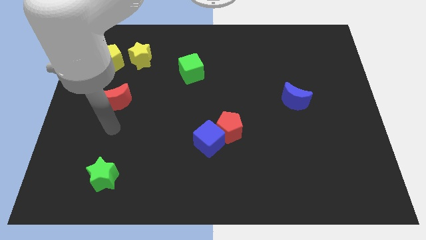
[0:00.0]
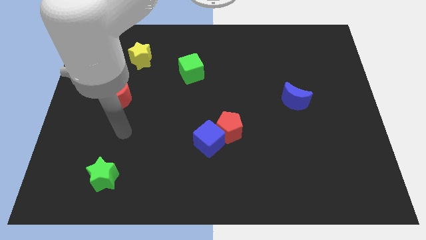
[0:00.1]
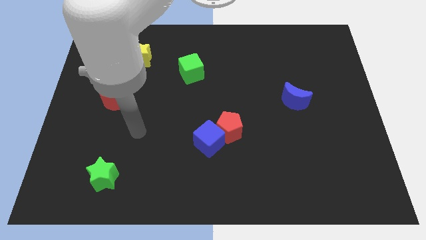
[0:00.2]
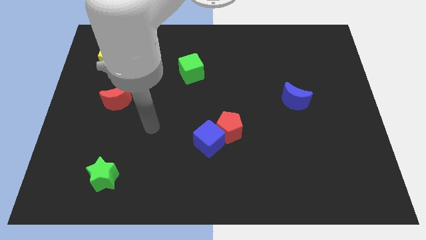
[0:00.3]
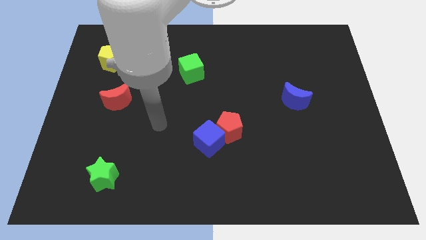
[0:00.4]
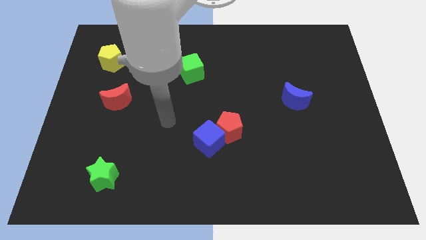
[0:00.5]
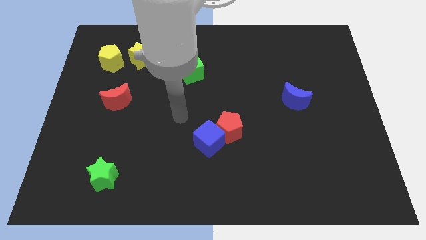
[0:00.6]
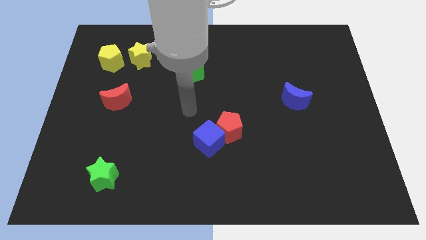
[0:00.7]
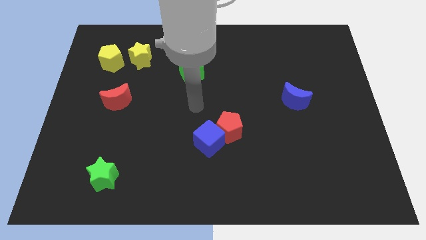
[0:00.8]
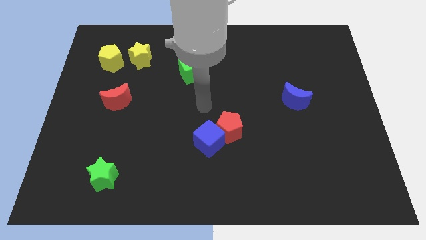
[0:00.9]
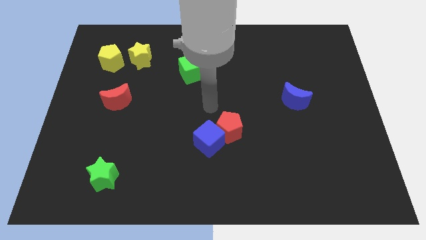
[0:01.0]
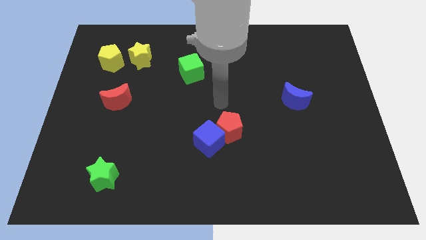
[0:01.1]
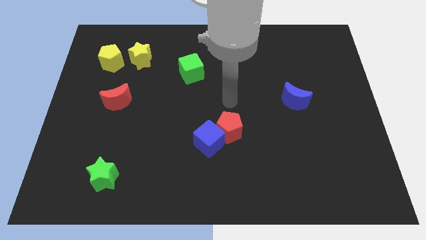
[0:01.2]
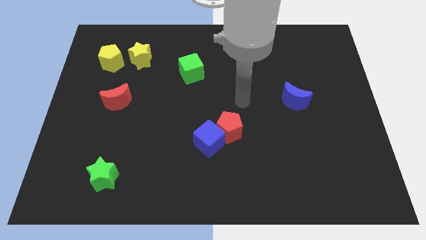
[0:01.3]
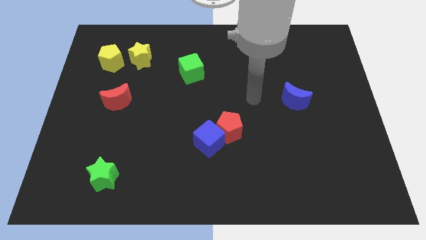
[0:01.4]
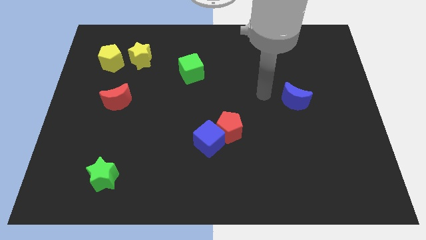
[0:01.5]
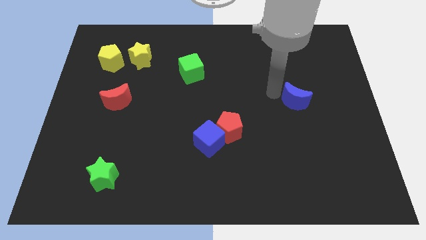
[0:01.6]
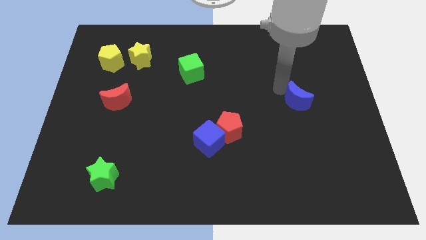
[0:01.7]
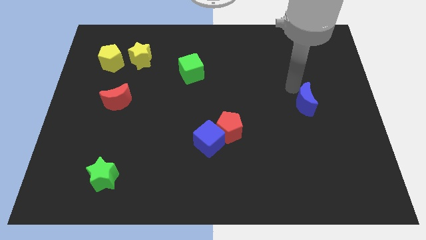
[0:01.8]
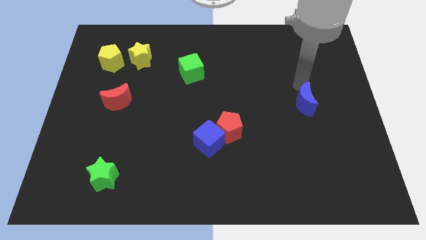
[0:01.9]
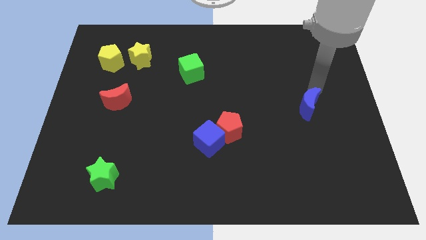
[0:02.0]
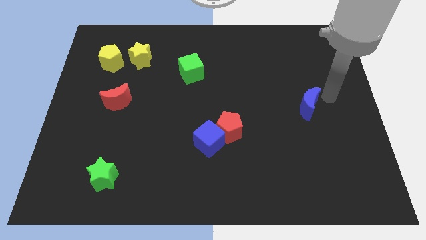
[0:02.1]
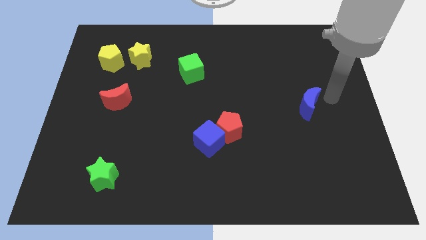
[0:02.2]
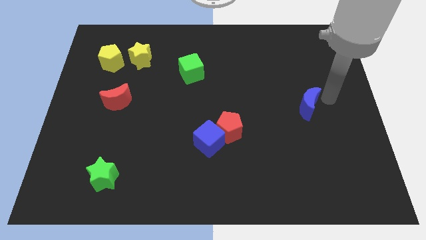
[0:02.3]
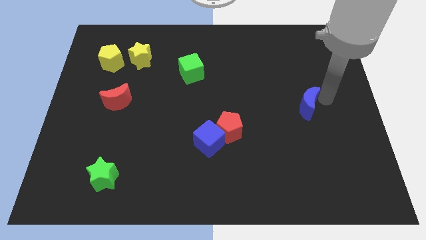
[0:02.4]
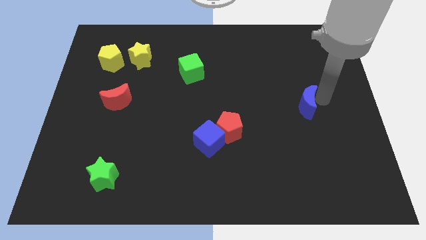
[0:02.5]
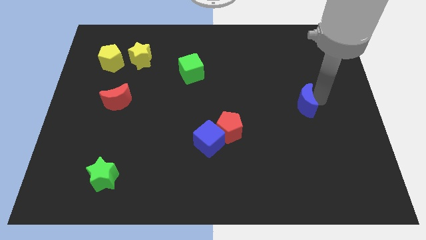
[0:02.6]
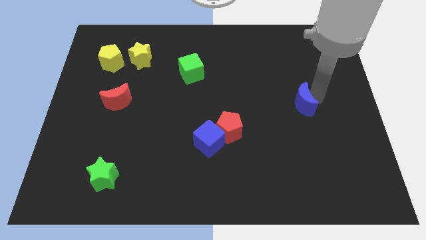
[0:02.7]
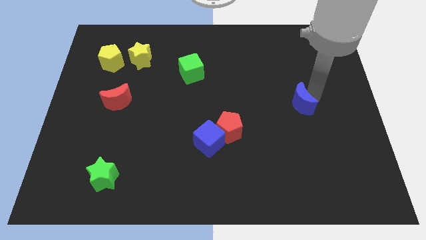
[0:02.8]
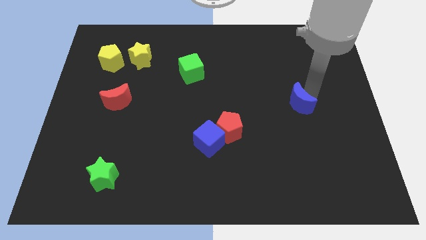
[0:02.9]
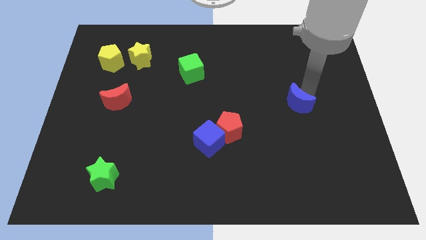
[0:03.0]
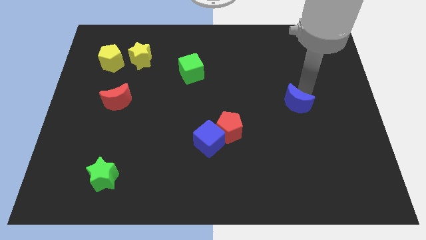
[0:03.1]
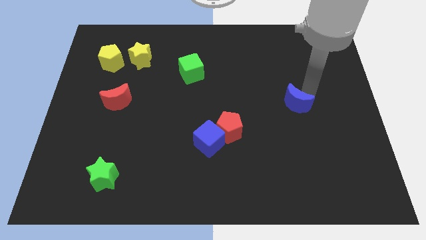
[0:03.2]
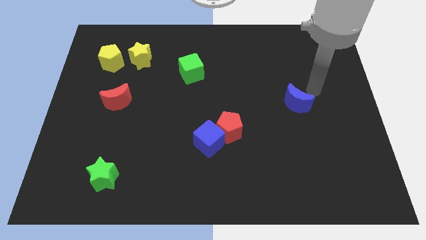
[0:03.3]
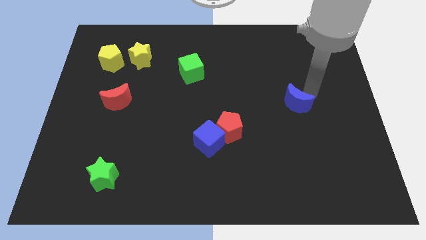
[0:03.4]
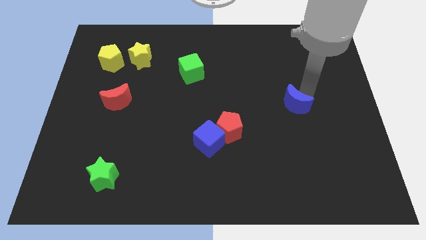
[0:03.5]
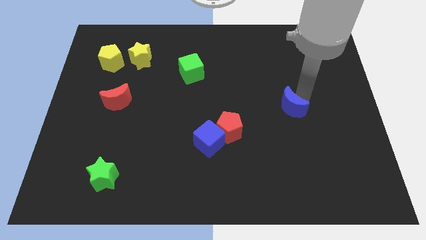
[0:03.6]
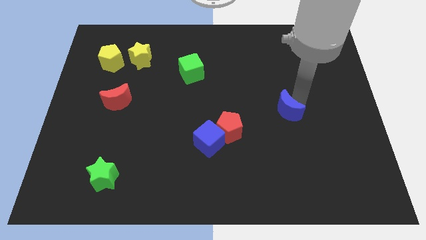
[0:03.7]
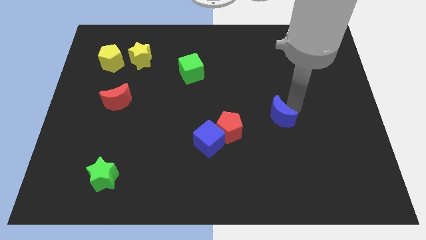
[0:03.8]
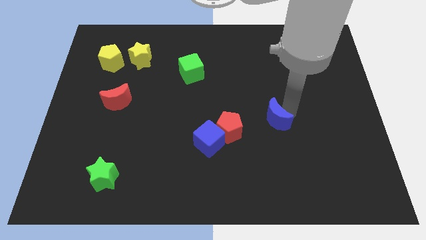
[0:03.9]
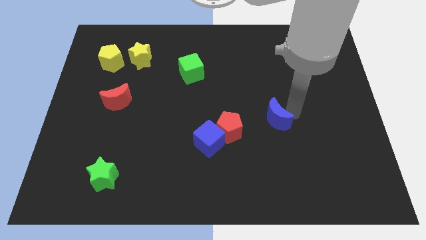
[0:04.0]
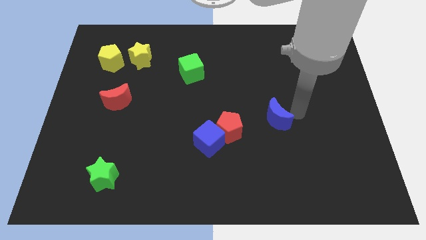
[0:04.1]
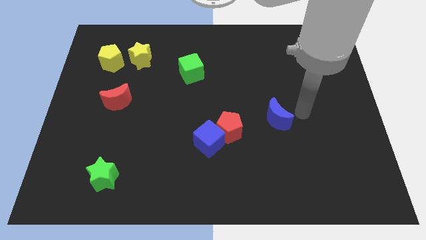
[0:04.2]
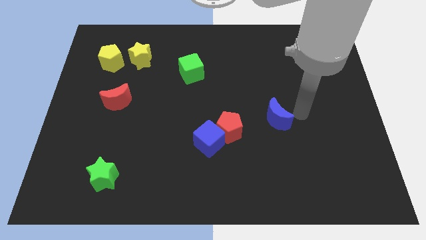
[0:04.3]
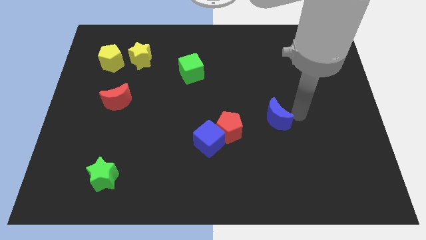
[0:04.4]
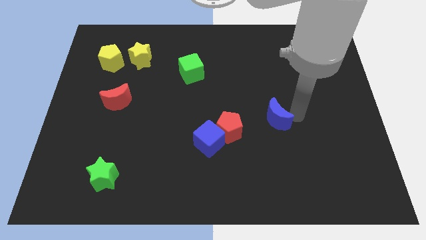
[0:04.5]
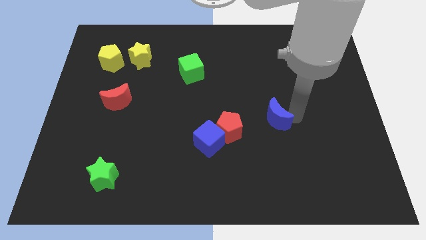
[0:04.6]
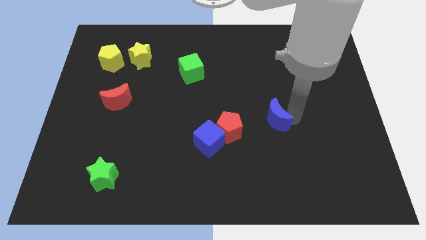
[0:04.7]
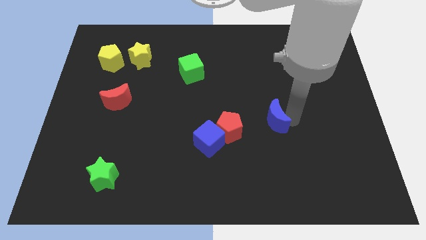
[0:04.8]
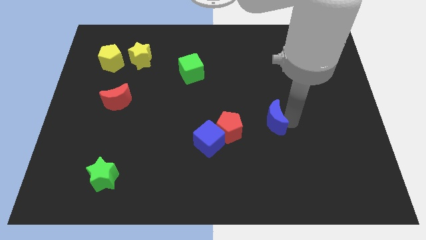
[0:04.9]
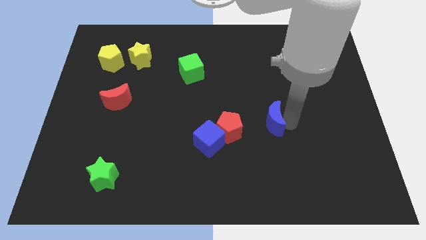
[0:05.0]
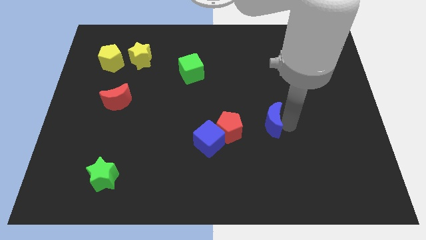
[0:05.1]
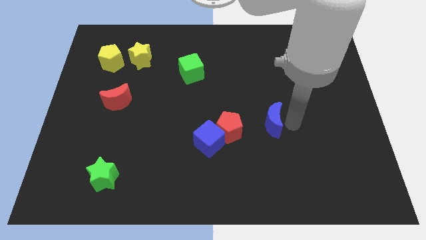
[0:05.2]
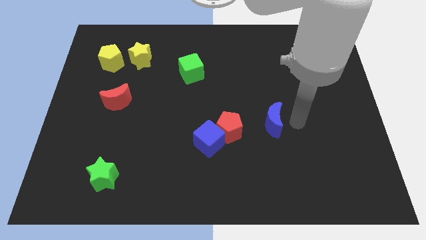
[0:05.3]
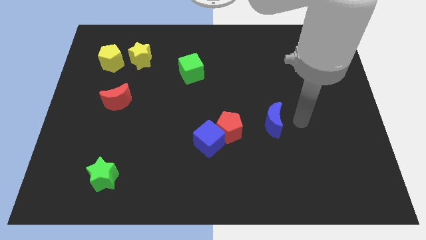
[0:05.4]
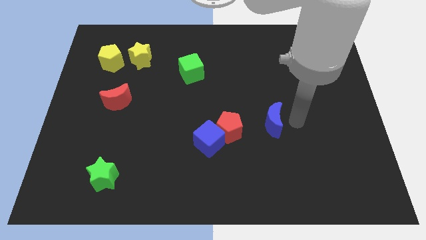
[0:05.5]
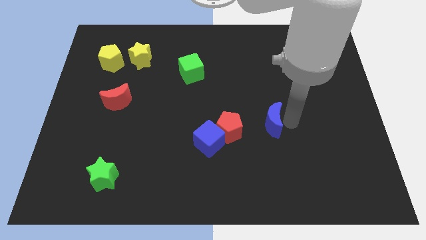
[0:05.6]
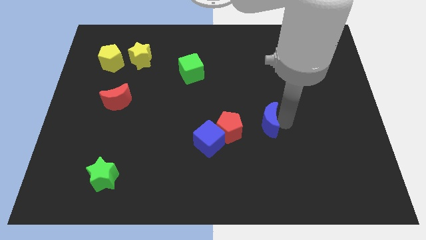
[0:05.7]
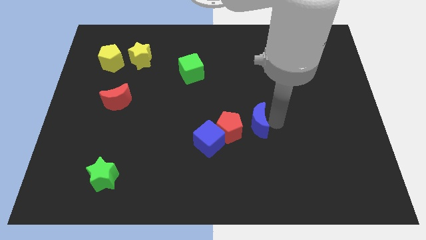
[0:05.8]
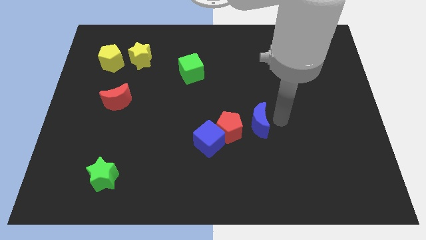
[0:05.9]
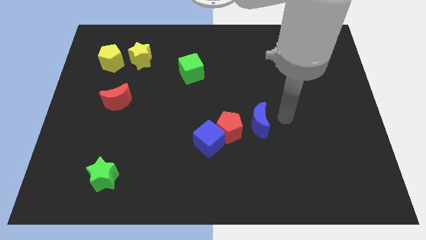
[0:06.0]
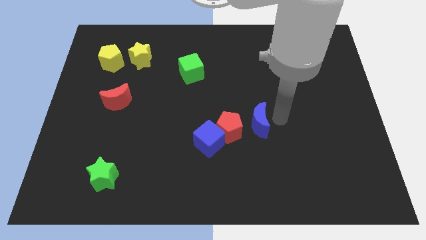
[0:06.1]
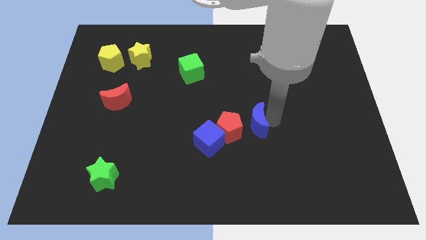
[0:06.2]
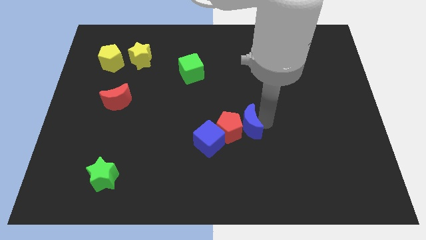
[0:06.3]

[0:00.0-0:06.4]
move the blue moon next to the red pentagon
